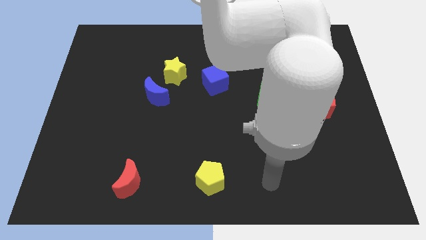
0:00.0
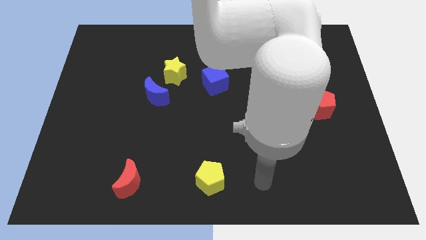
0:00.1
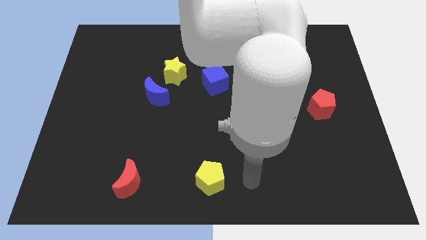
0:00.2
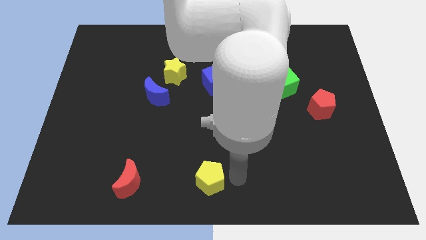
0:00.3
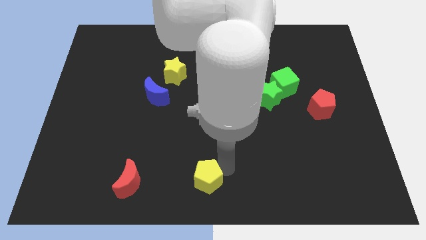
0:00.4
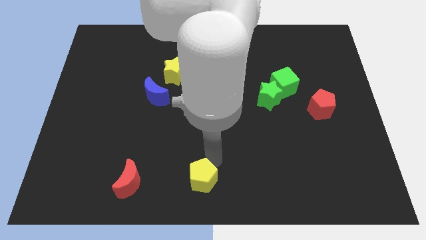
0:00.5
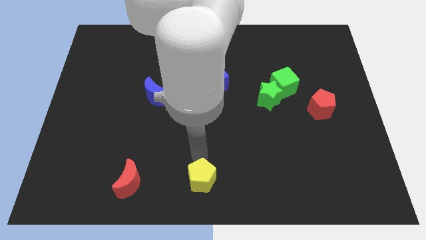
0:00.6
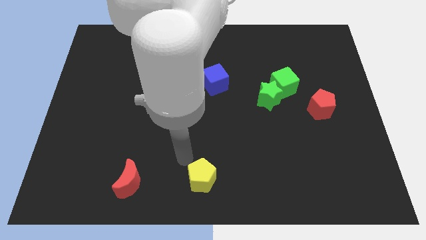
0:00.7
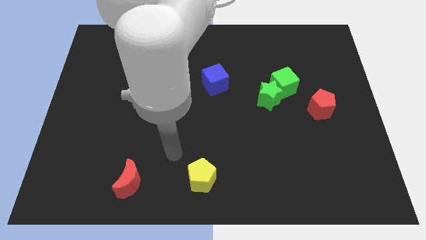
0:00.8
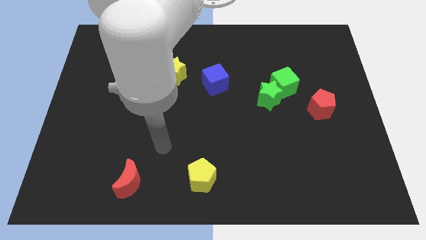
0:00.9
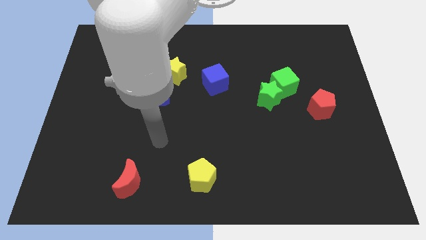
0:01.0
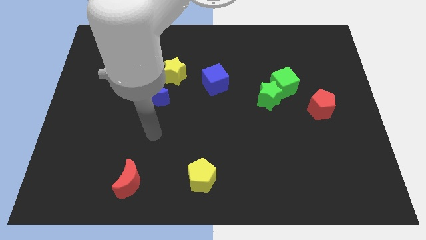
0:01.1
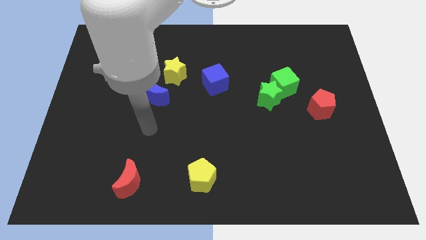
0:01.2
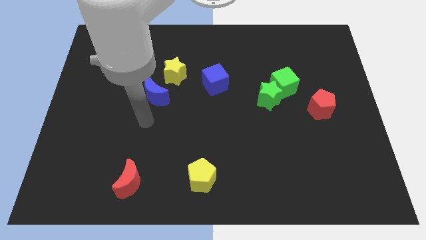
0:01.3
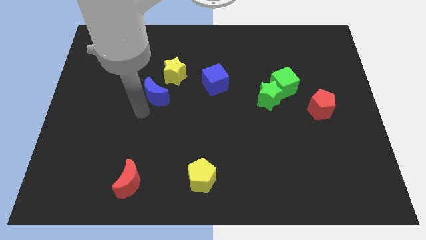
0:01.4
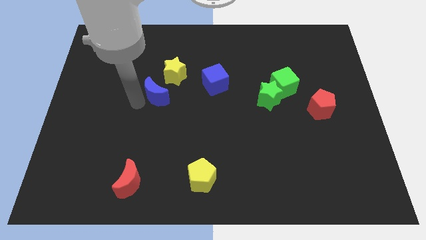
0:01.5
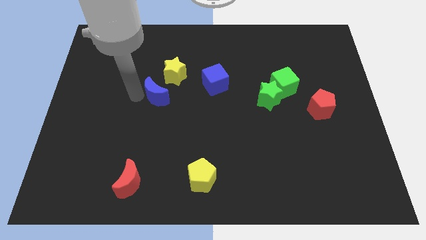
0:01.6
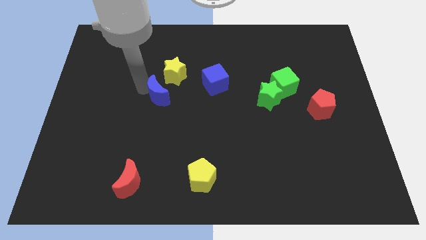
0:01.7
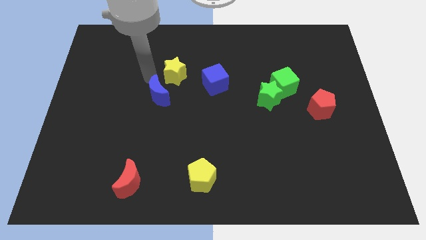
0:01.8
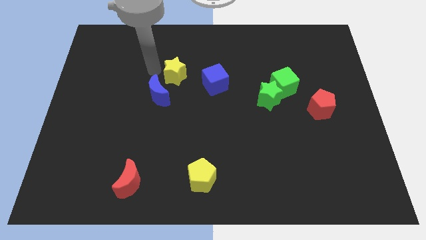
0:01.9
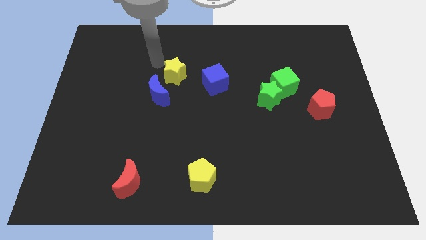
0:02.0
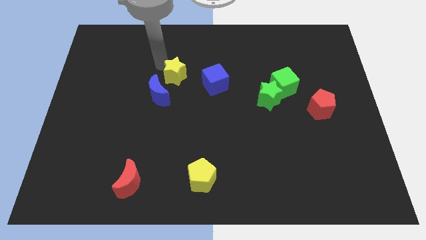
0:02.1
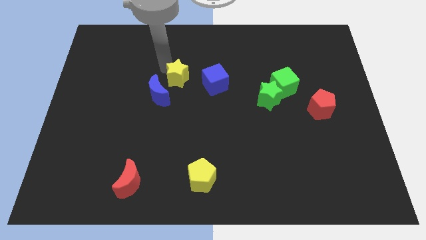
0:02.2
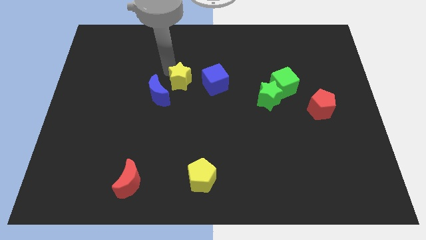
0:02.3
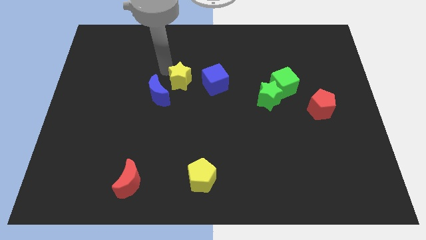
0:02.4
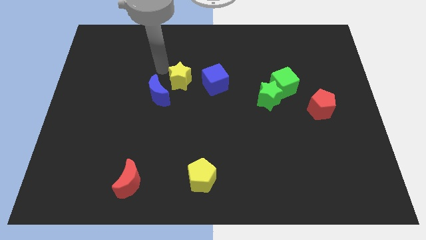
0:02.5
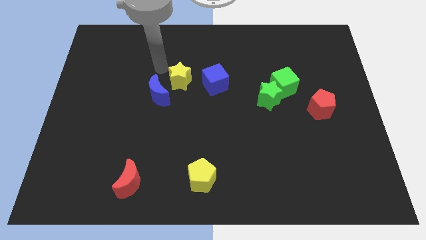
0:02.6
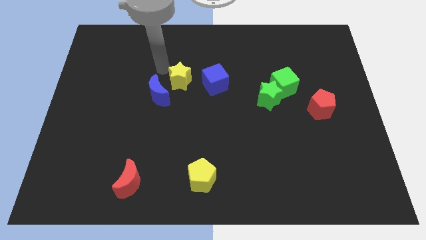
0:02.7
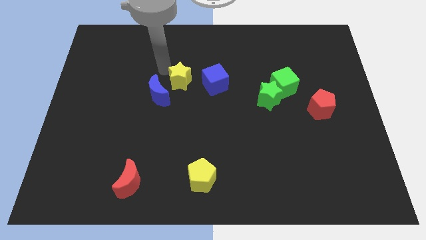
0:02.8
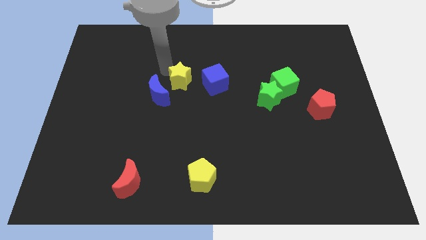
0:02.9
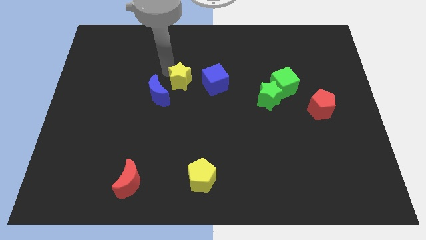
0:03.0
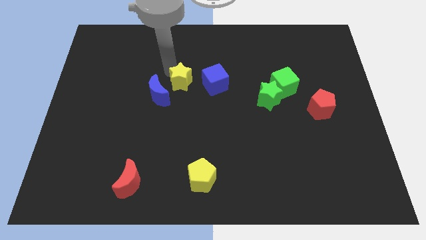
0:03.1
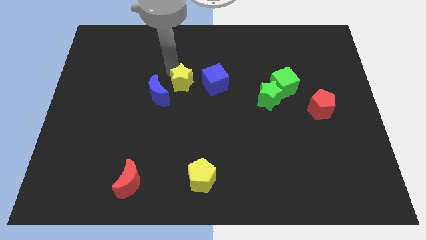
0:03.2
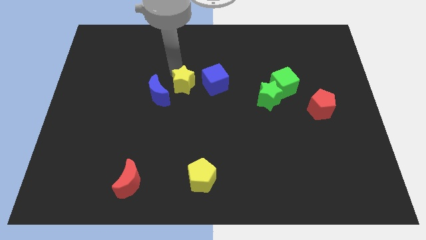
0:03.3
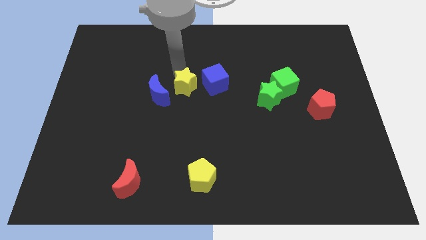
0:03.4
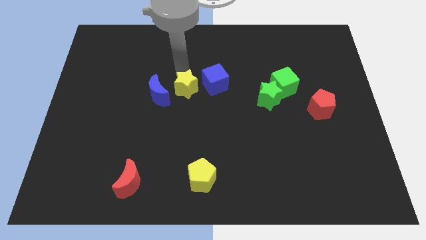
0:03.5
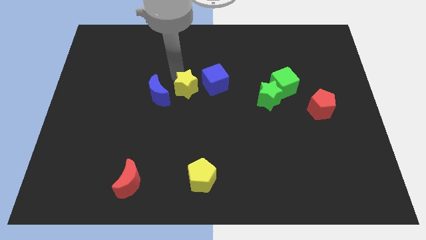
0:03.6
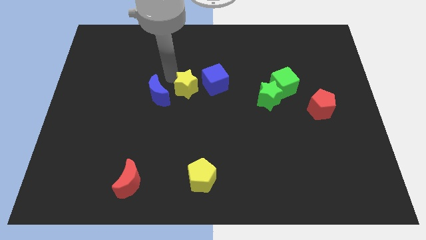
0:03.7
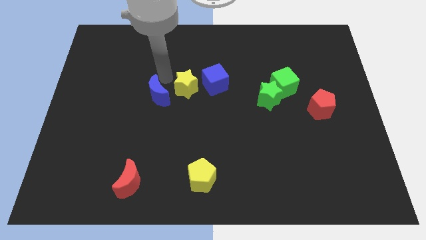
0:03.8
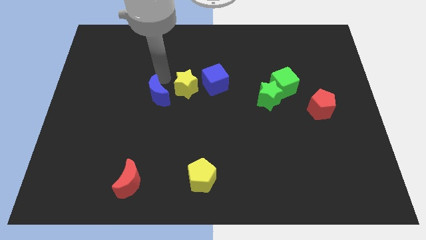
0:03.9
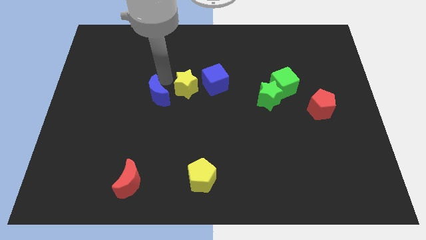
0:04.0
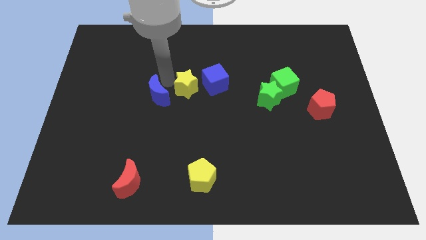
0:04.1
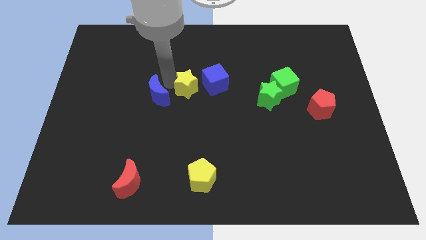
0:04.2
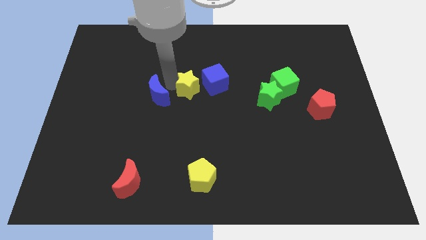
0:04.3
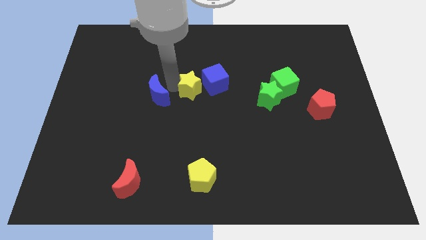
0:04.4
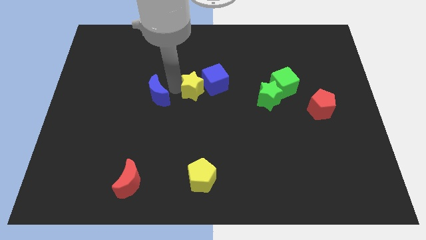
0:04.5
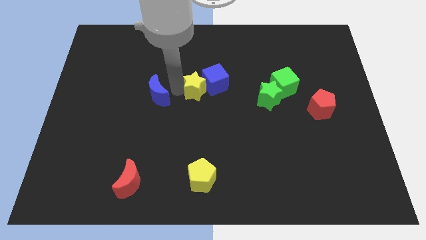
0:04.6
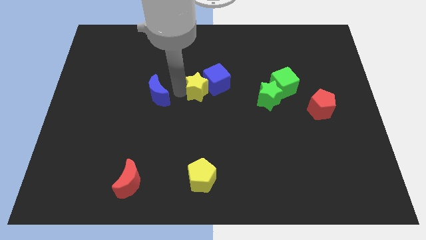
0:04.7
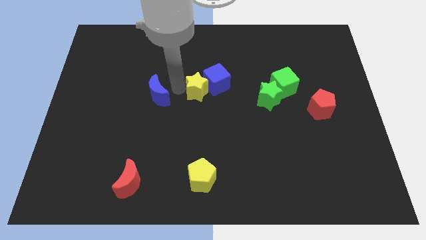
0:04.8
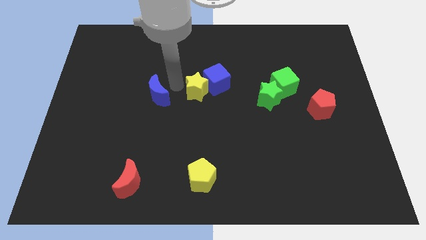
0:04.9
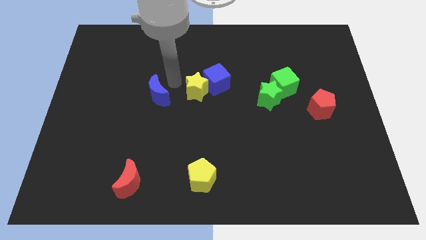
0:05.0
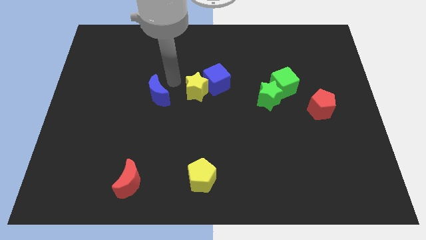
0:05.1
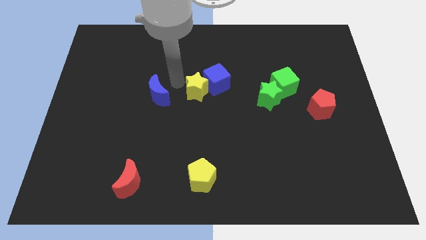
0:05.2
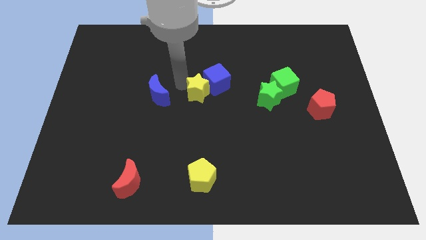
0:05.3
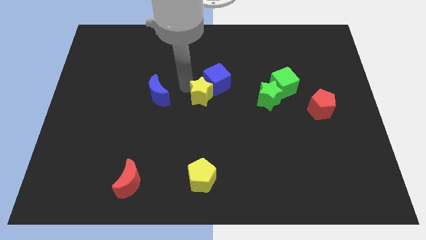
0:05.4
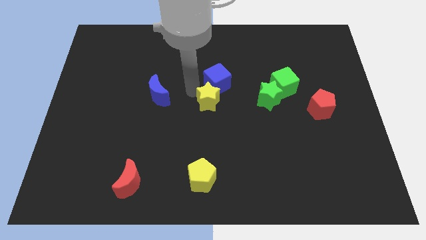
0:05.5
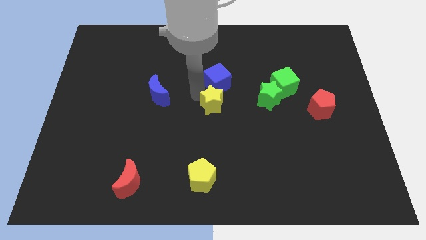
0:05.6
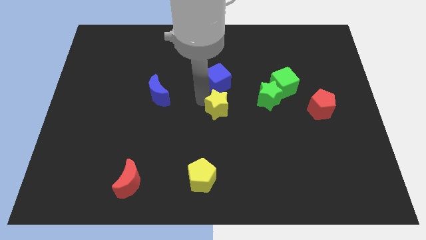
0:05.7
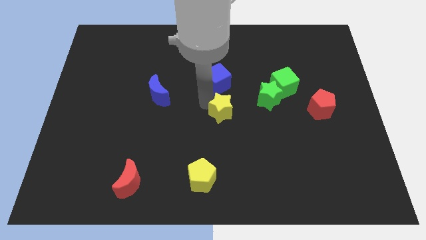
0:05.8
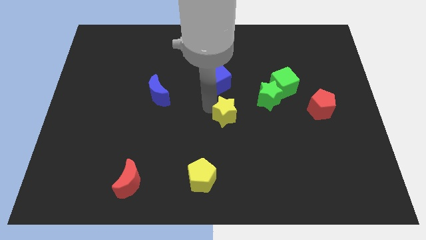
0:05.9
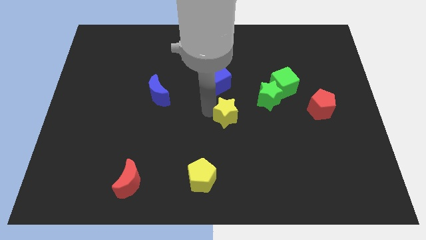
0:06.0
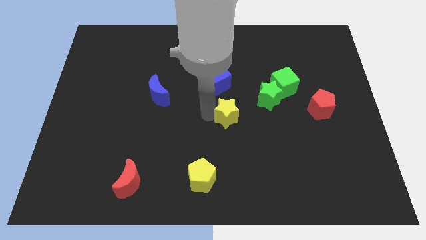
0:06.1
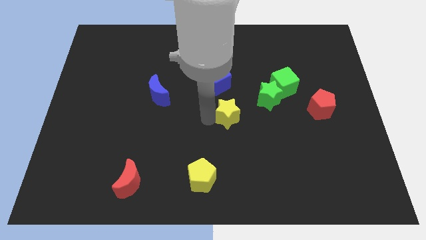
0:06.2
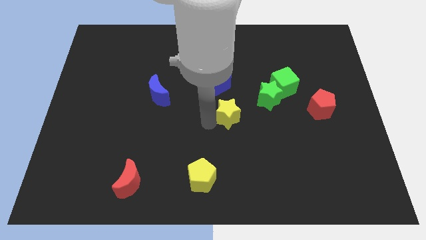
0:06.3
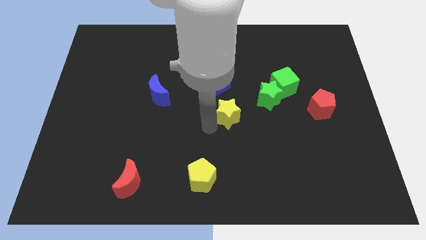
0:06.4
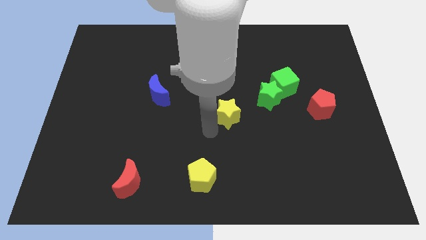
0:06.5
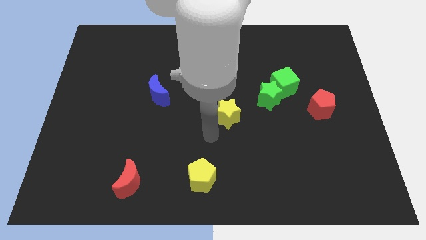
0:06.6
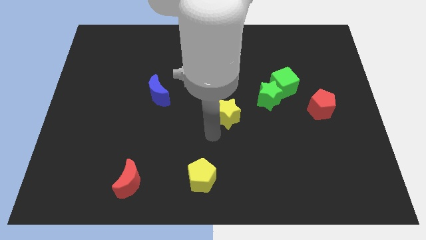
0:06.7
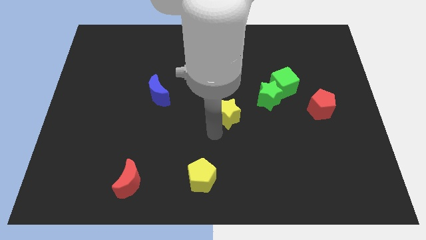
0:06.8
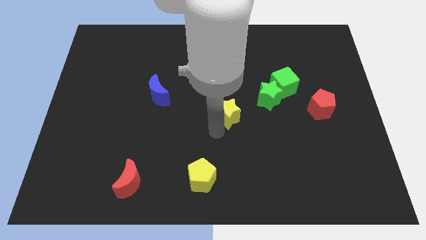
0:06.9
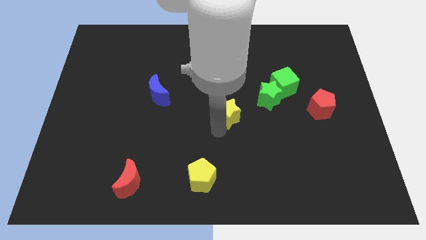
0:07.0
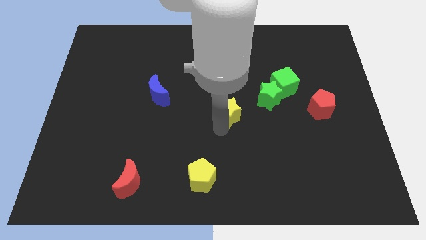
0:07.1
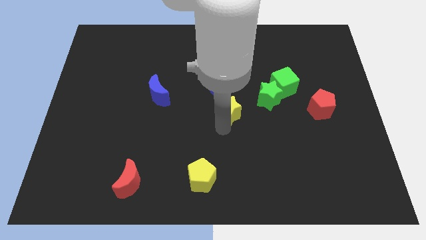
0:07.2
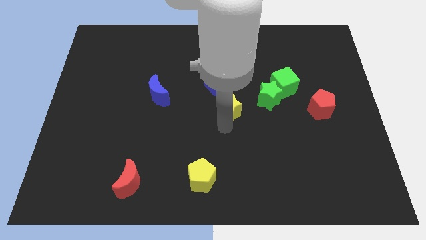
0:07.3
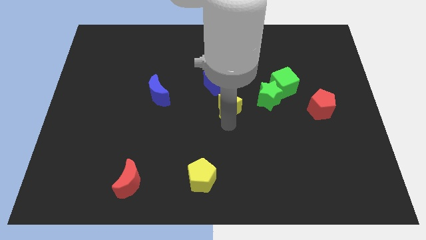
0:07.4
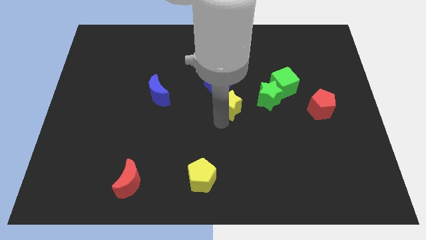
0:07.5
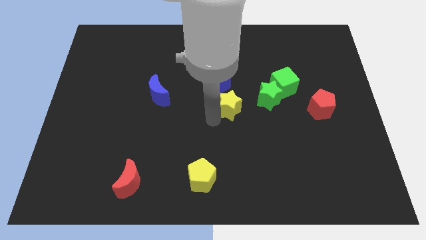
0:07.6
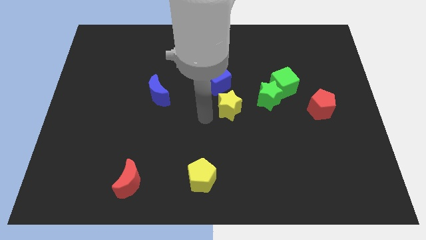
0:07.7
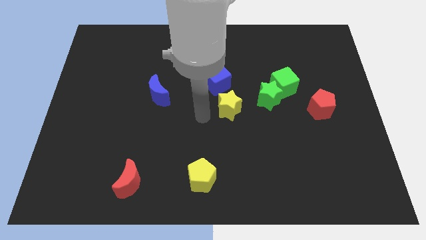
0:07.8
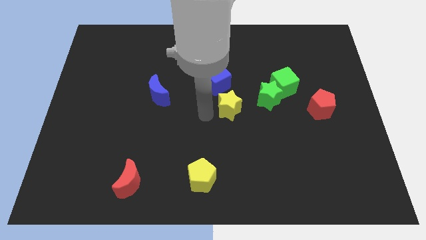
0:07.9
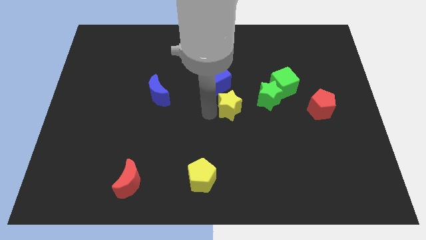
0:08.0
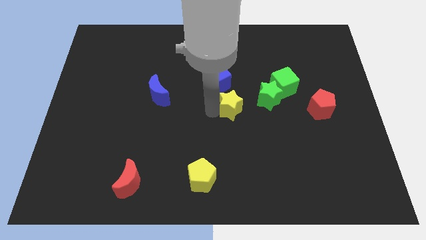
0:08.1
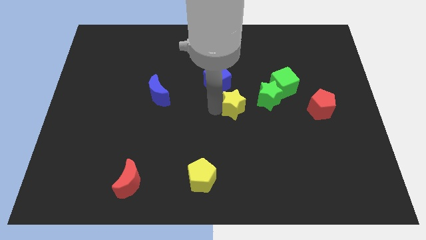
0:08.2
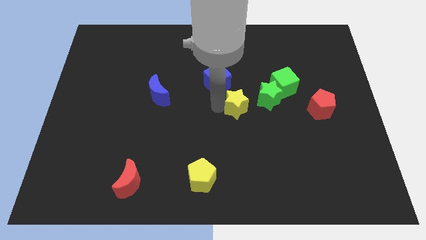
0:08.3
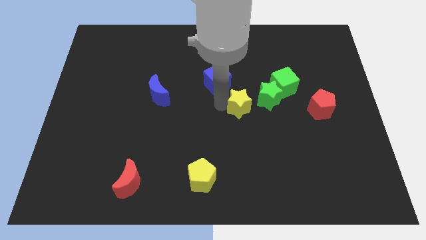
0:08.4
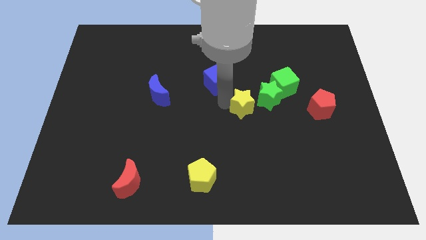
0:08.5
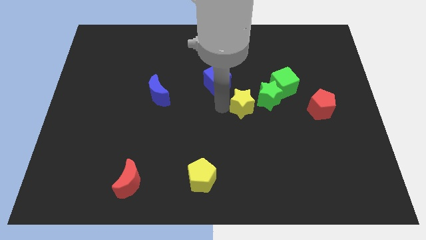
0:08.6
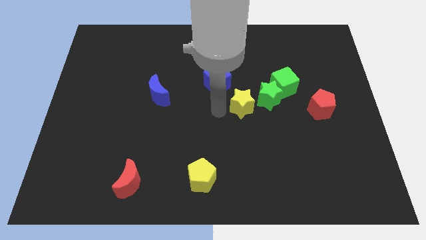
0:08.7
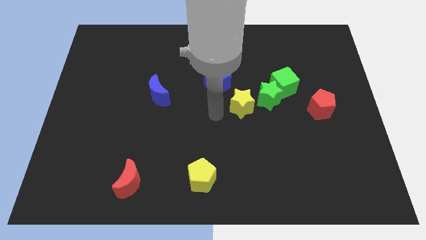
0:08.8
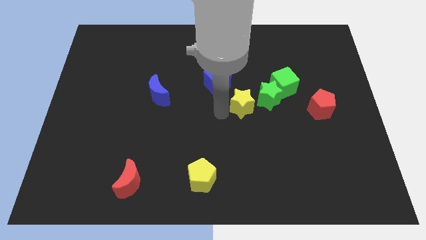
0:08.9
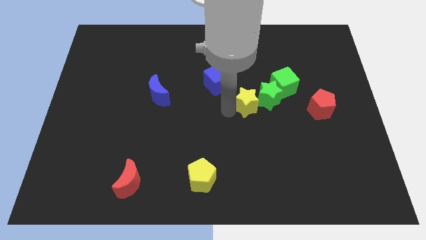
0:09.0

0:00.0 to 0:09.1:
put the yellow star towards the green star
